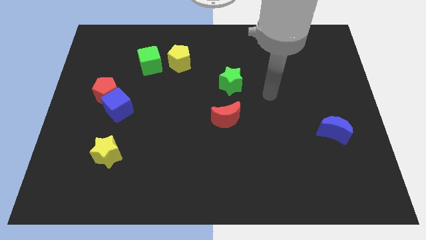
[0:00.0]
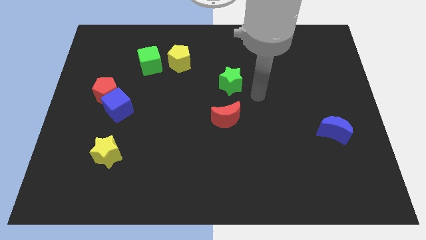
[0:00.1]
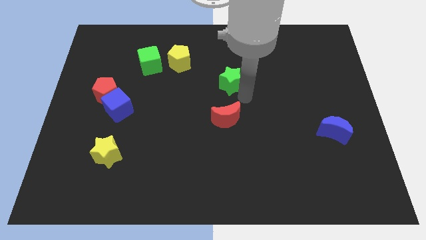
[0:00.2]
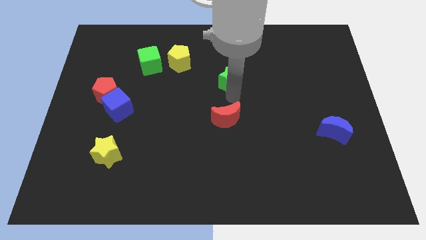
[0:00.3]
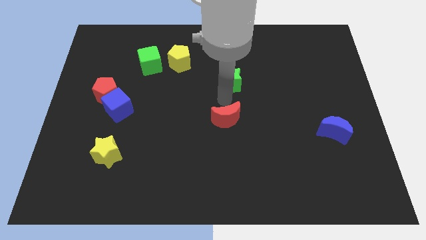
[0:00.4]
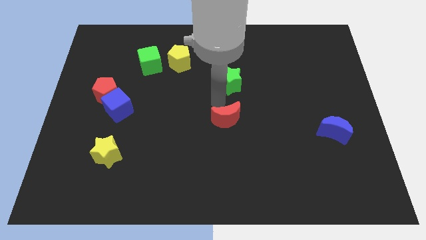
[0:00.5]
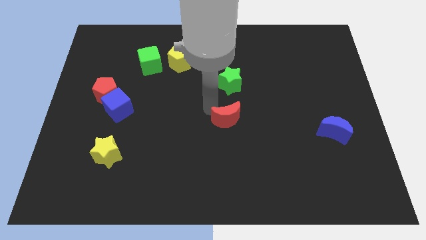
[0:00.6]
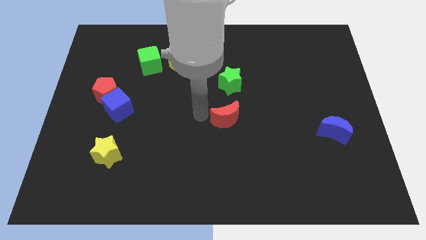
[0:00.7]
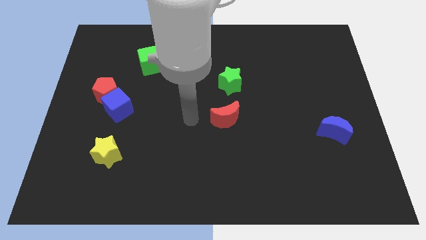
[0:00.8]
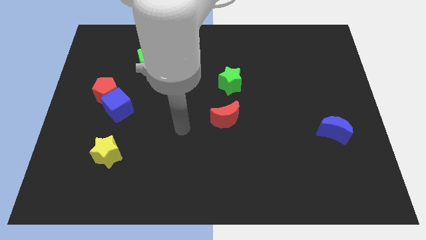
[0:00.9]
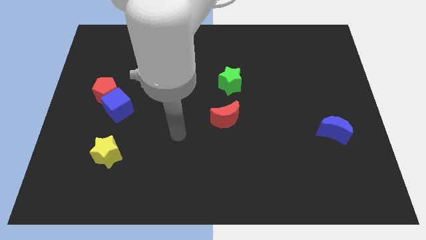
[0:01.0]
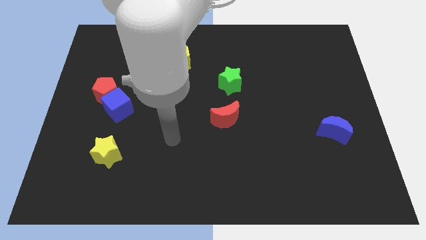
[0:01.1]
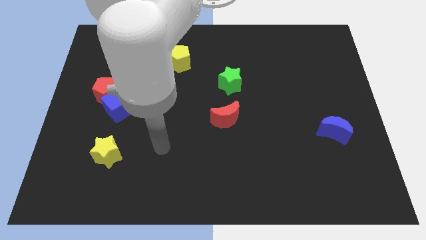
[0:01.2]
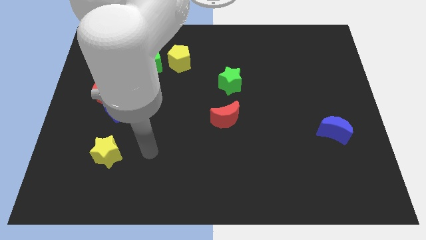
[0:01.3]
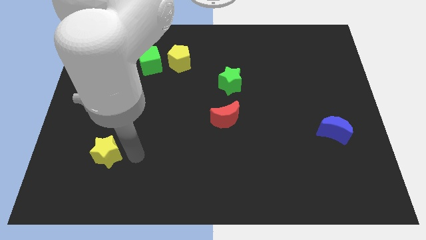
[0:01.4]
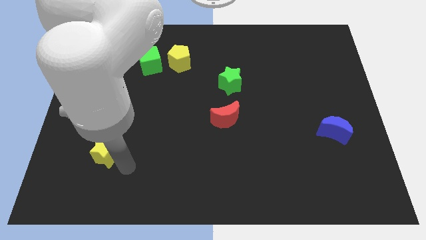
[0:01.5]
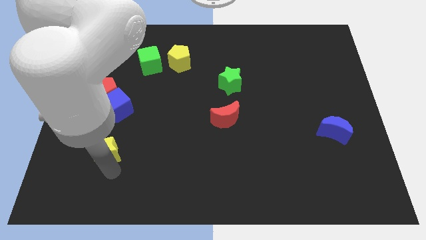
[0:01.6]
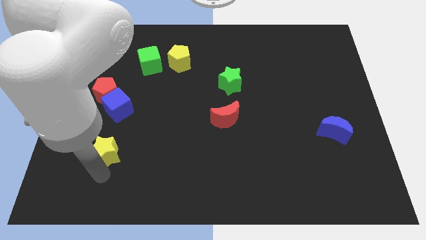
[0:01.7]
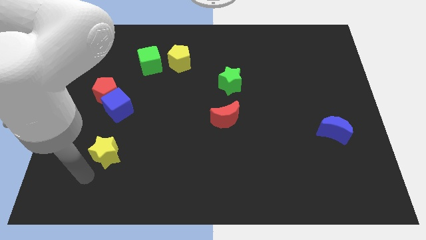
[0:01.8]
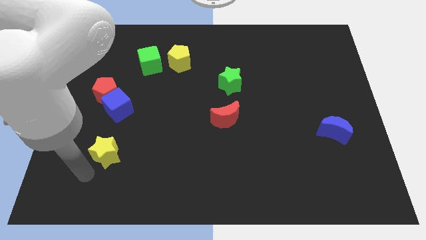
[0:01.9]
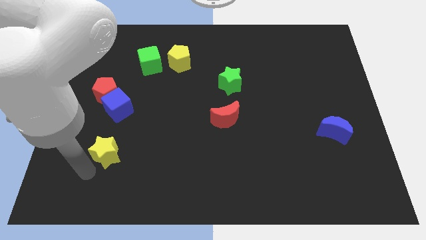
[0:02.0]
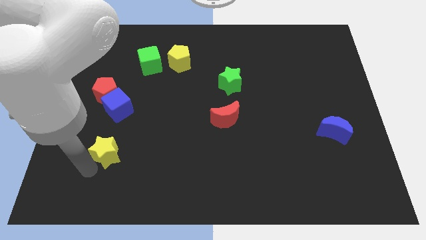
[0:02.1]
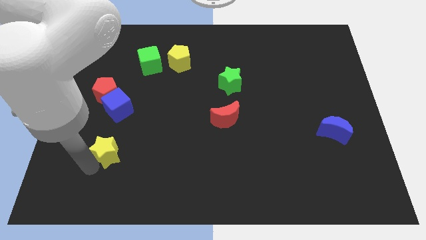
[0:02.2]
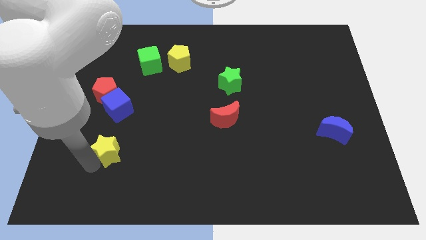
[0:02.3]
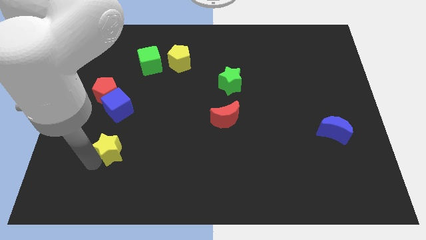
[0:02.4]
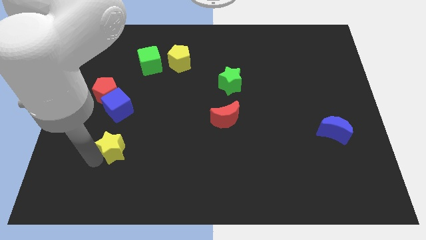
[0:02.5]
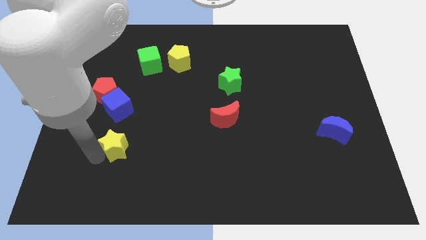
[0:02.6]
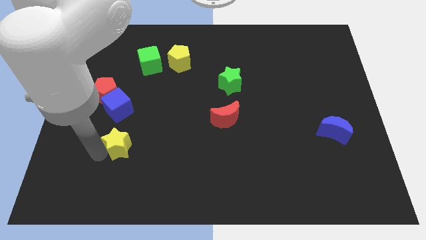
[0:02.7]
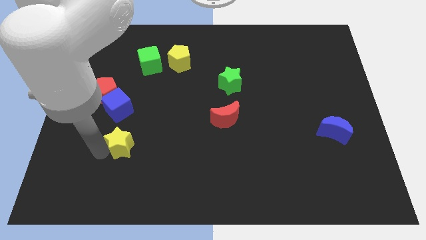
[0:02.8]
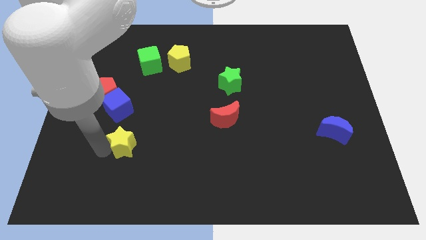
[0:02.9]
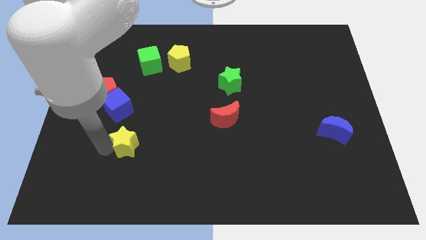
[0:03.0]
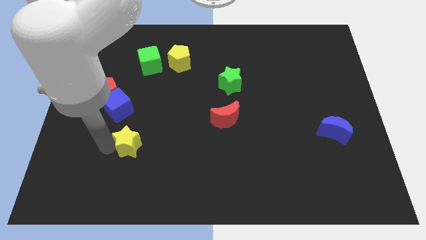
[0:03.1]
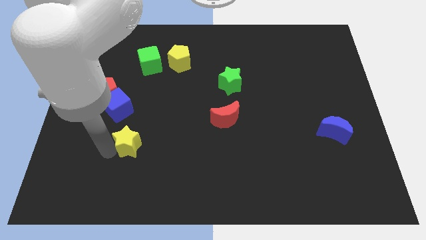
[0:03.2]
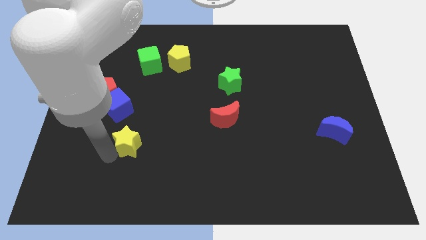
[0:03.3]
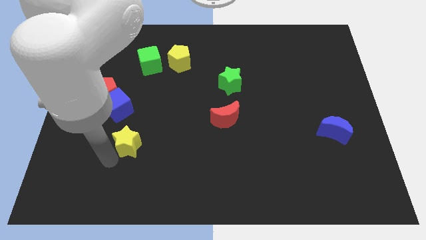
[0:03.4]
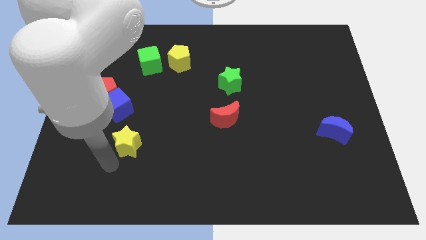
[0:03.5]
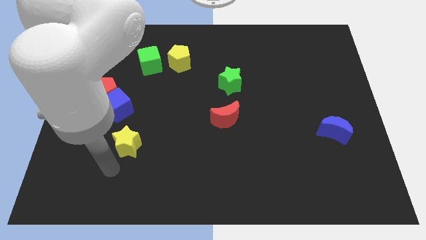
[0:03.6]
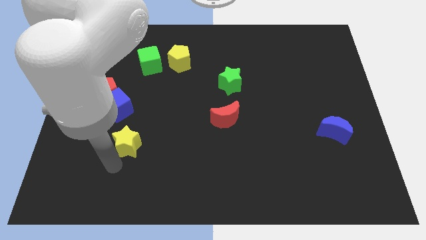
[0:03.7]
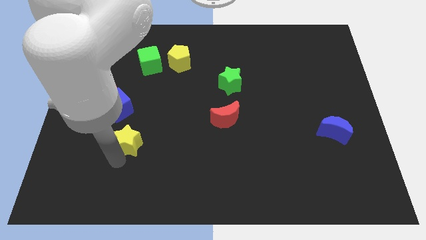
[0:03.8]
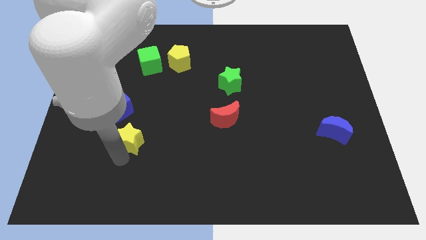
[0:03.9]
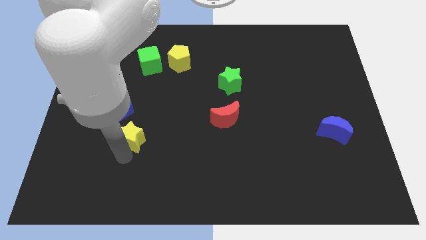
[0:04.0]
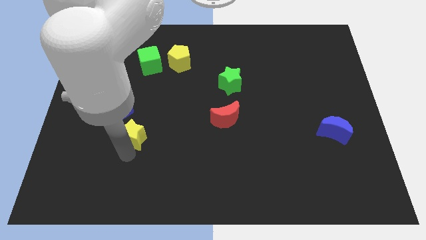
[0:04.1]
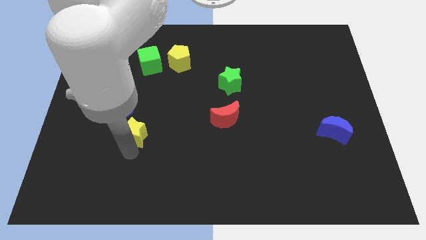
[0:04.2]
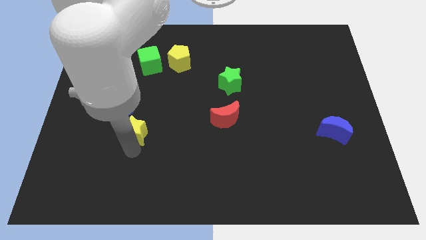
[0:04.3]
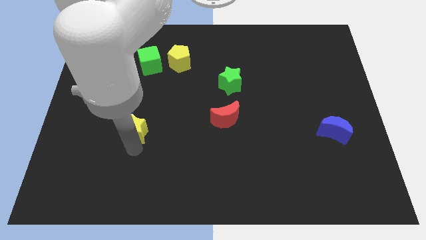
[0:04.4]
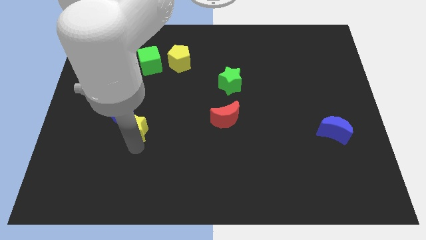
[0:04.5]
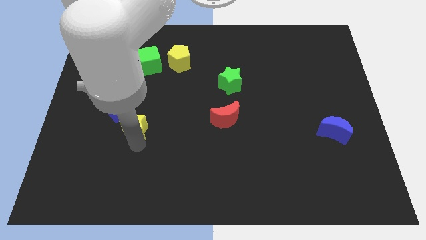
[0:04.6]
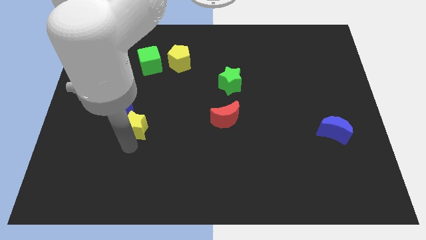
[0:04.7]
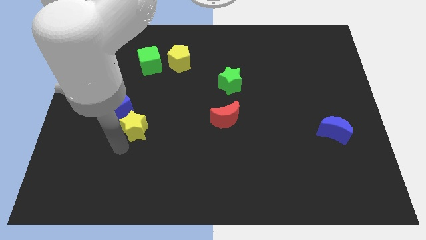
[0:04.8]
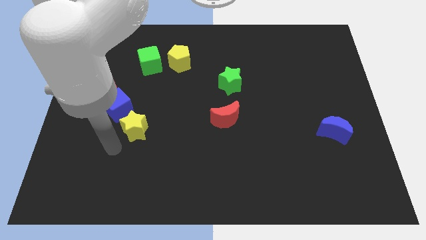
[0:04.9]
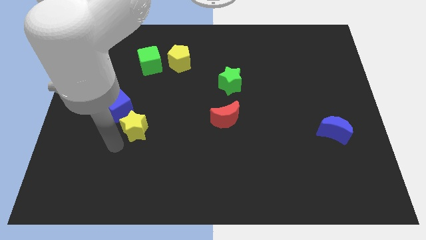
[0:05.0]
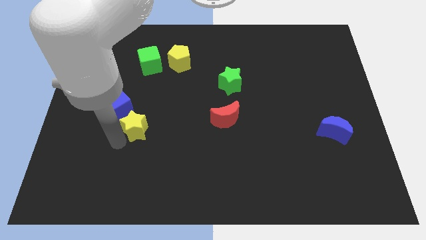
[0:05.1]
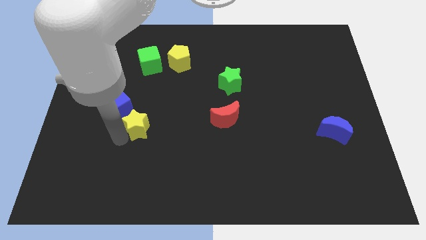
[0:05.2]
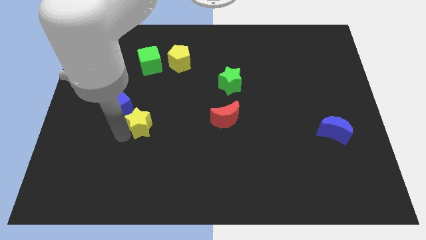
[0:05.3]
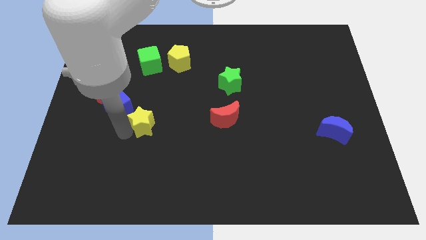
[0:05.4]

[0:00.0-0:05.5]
move the yellow star right of the blue cube

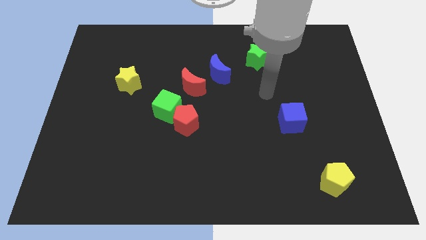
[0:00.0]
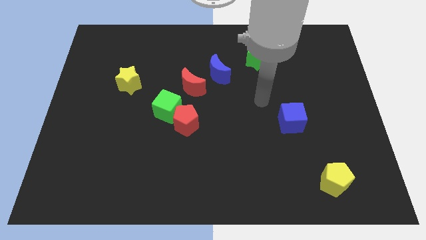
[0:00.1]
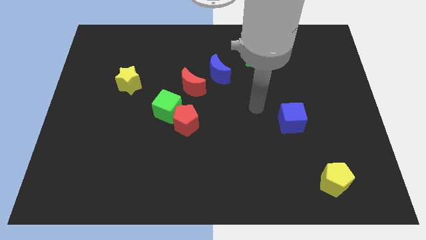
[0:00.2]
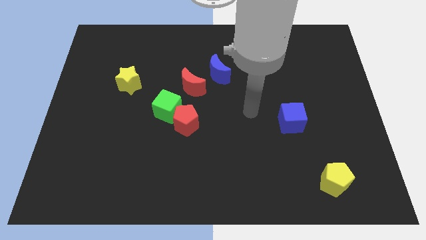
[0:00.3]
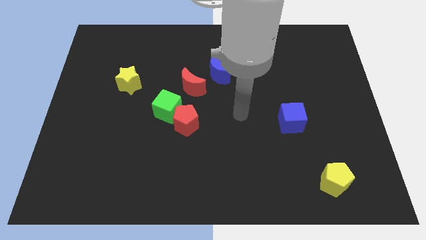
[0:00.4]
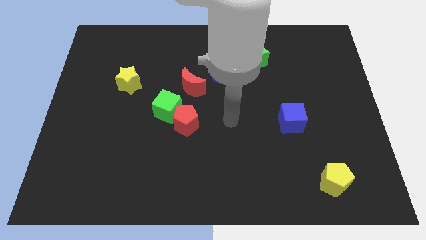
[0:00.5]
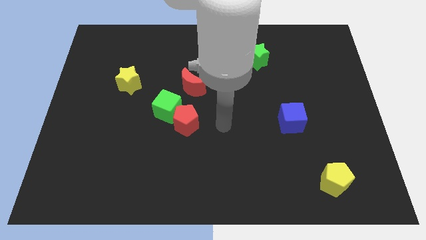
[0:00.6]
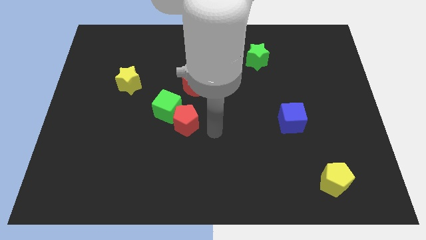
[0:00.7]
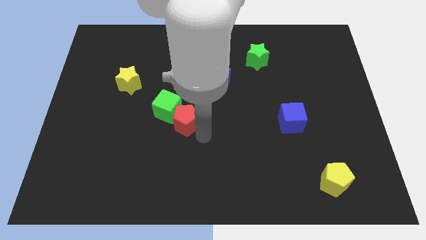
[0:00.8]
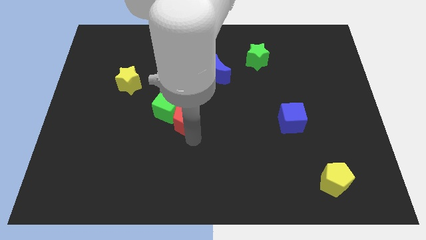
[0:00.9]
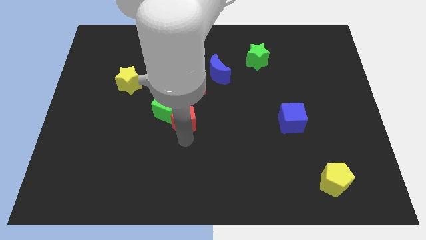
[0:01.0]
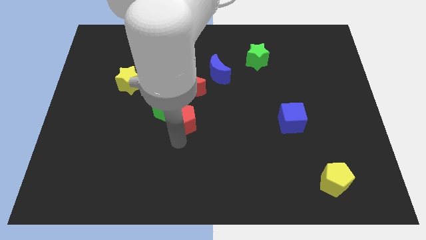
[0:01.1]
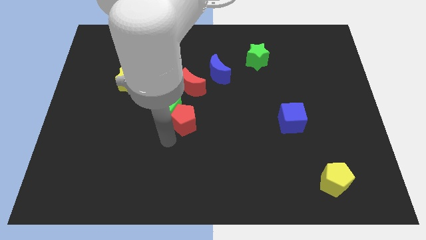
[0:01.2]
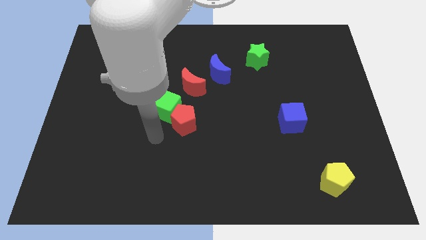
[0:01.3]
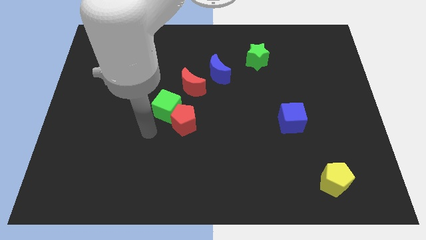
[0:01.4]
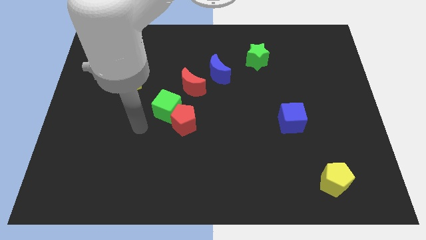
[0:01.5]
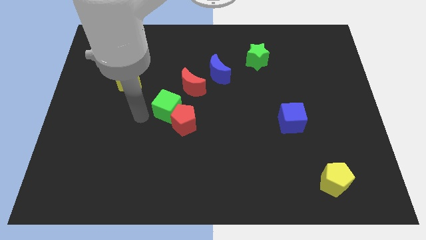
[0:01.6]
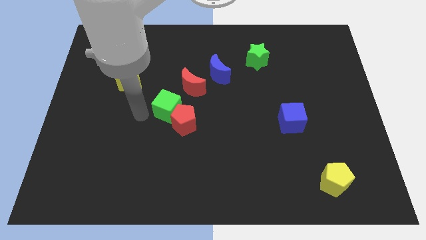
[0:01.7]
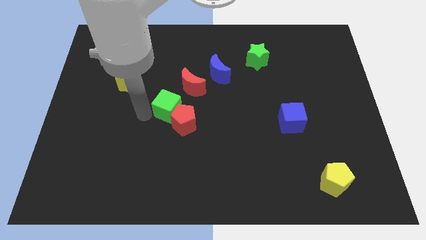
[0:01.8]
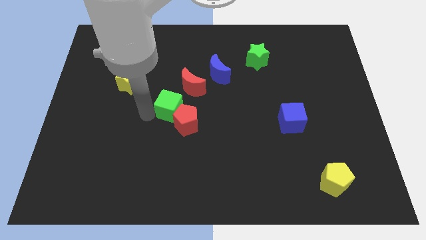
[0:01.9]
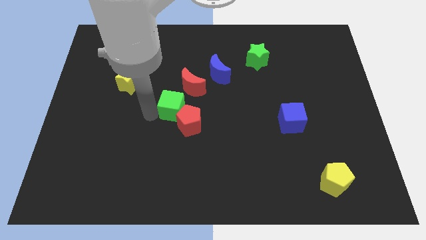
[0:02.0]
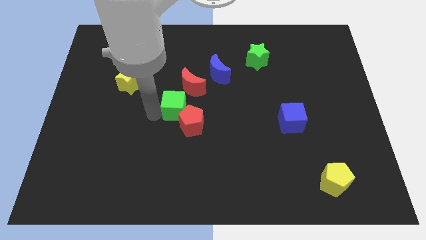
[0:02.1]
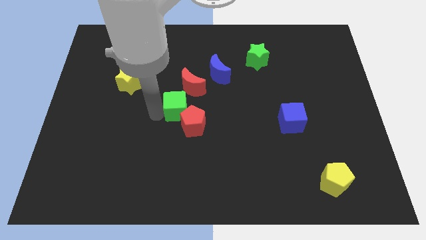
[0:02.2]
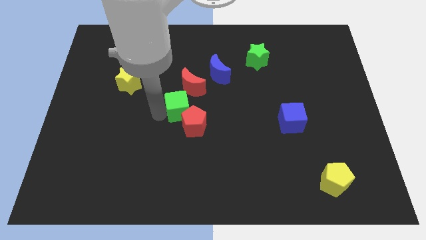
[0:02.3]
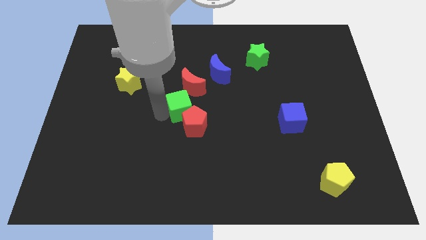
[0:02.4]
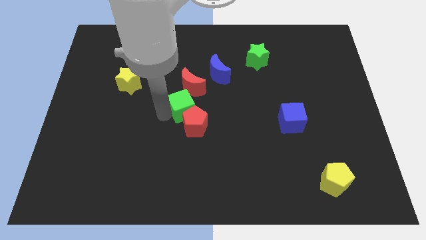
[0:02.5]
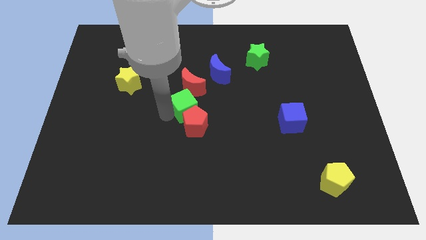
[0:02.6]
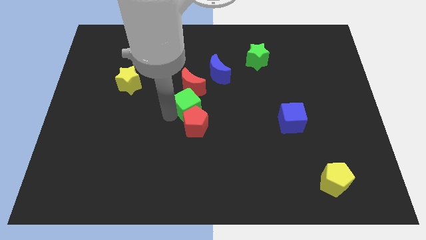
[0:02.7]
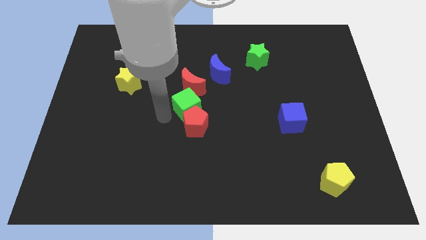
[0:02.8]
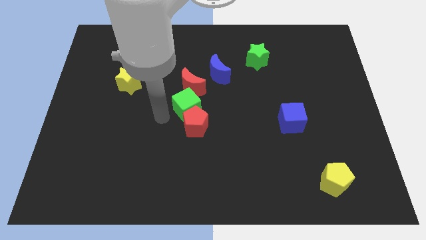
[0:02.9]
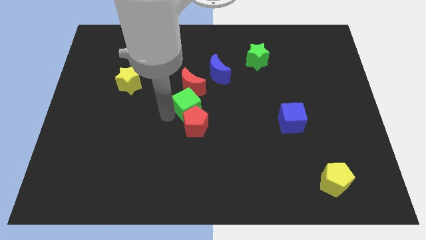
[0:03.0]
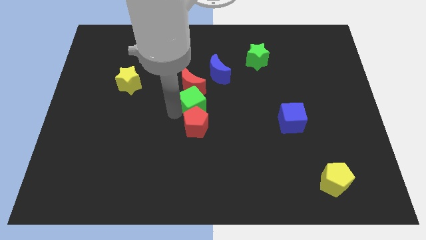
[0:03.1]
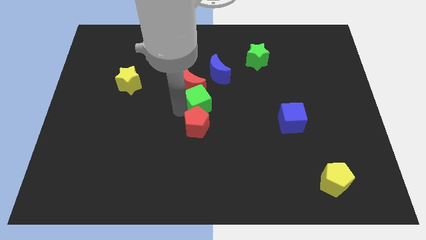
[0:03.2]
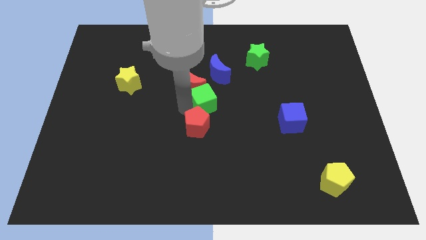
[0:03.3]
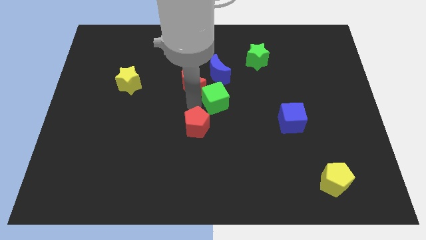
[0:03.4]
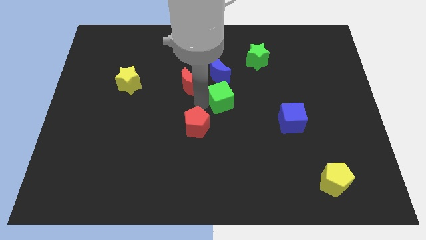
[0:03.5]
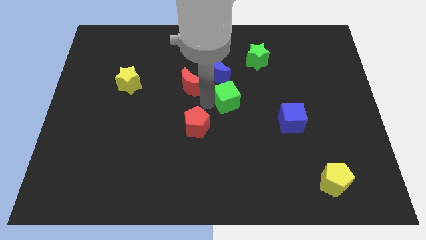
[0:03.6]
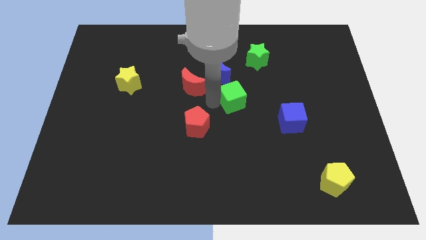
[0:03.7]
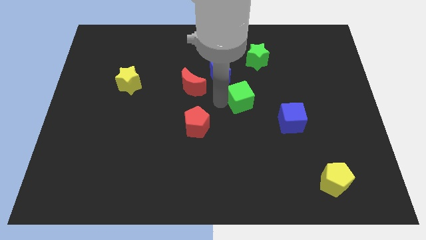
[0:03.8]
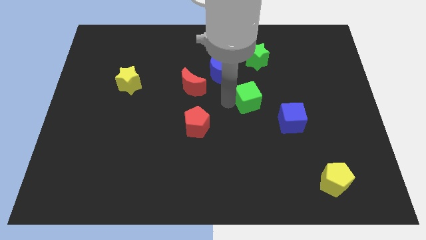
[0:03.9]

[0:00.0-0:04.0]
slide the green cube below the green star
